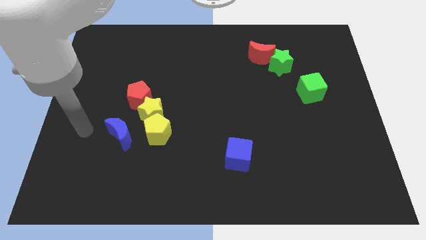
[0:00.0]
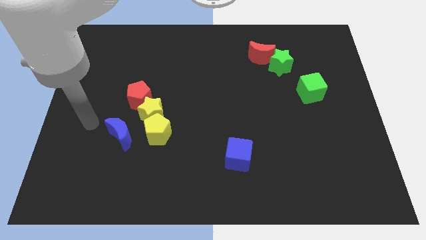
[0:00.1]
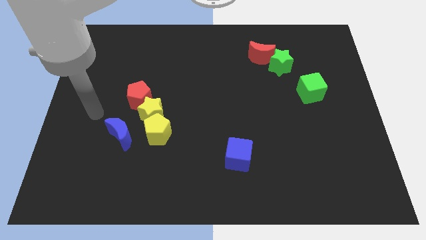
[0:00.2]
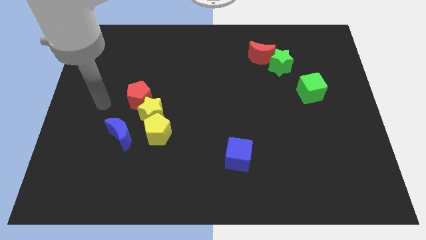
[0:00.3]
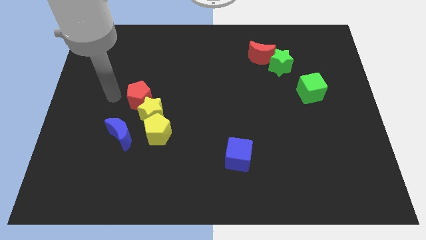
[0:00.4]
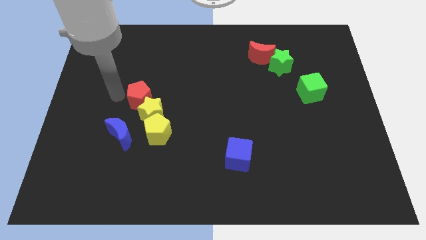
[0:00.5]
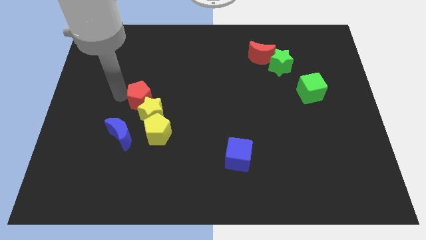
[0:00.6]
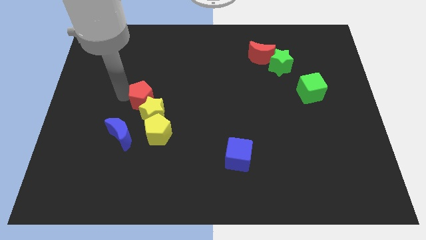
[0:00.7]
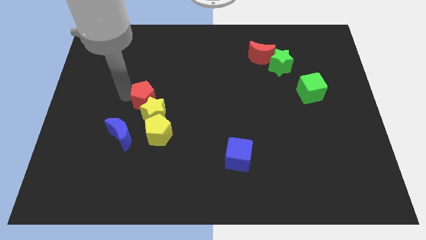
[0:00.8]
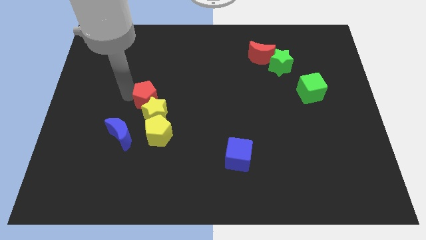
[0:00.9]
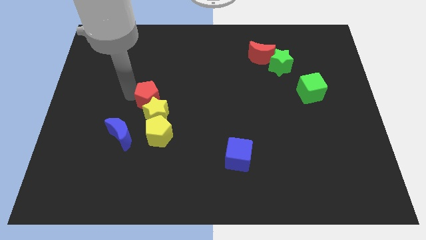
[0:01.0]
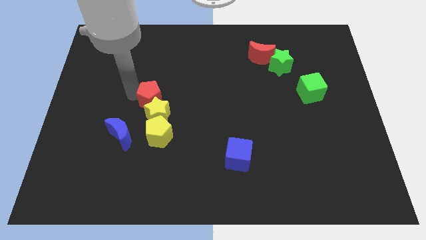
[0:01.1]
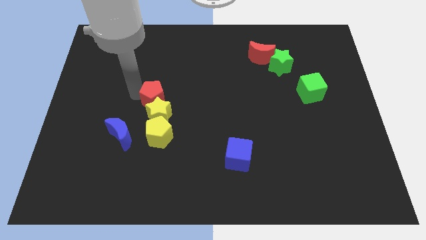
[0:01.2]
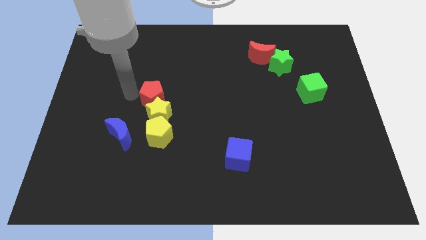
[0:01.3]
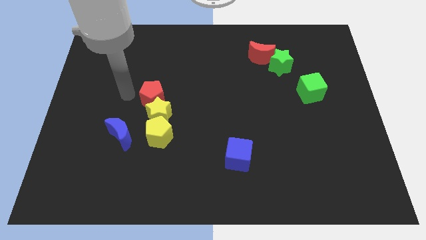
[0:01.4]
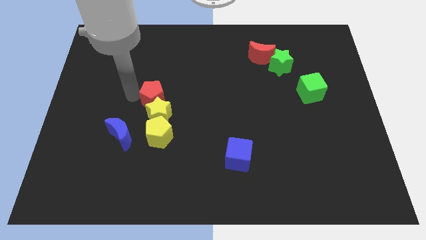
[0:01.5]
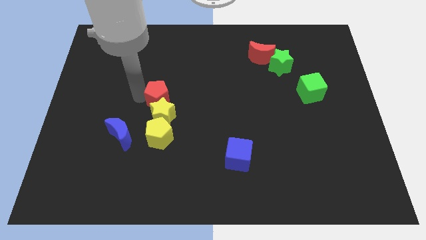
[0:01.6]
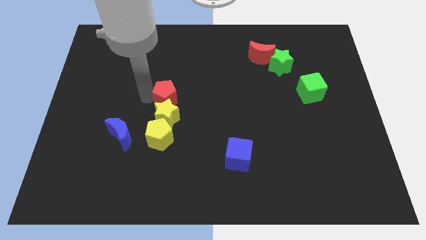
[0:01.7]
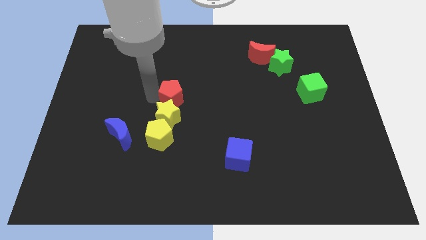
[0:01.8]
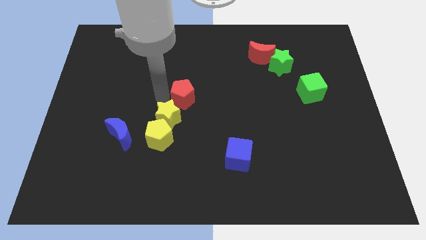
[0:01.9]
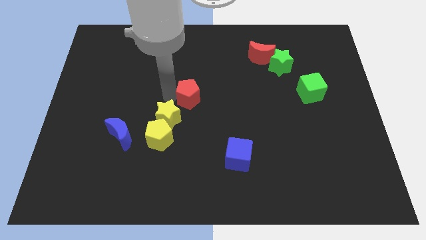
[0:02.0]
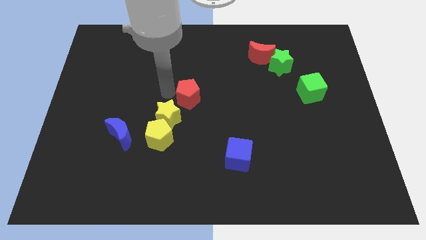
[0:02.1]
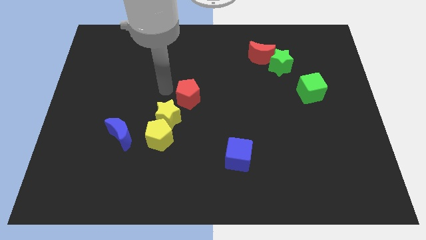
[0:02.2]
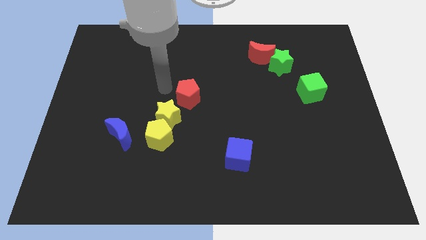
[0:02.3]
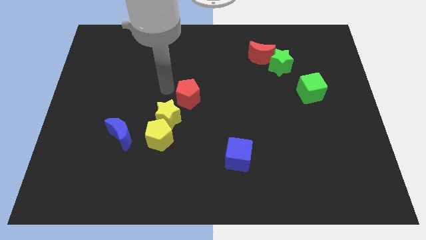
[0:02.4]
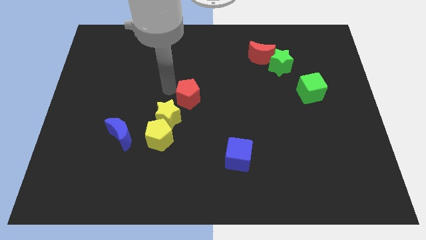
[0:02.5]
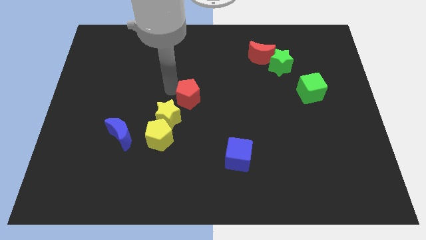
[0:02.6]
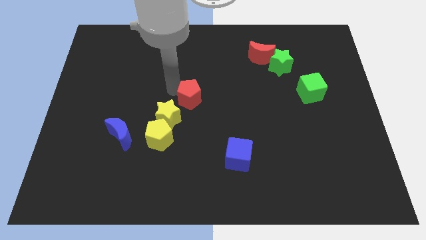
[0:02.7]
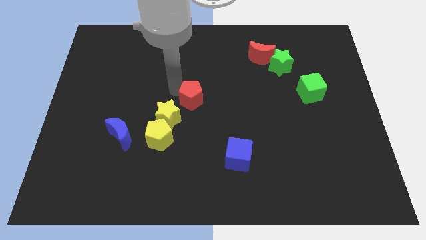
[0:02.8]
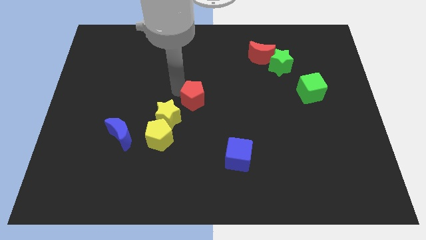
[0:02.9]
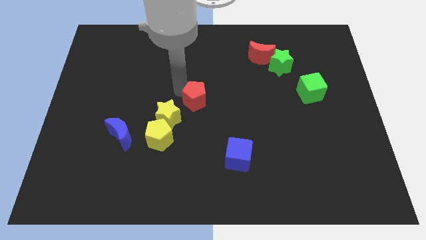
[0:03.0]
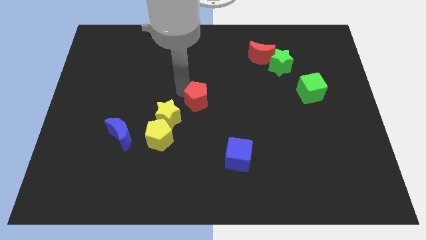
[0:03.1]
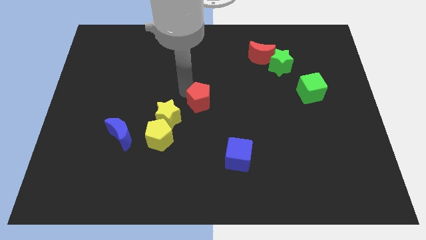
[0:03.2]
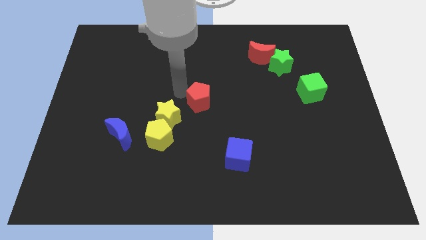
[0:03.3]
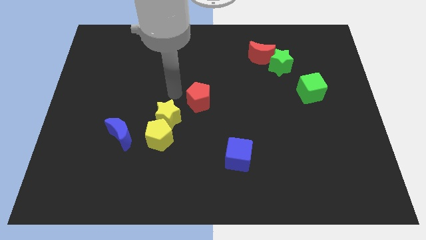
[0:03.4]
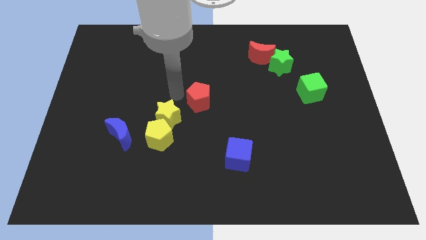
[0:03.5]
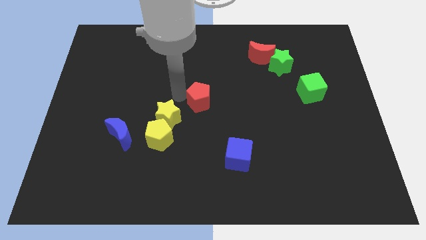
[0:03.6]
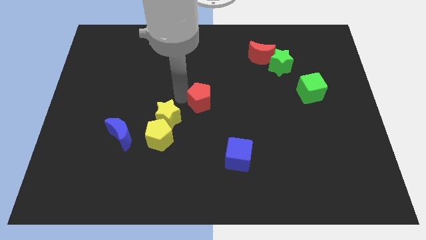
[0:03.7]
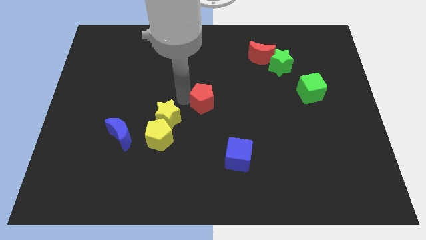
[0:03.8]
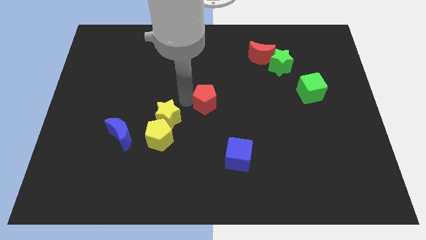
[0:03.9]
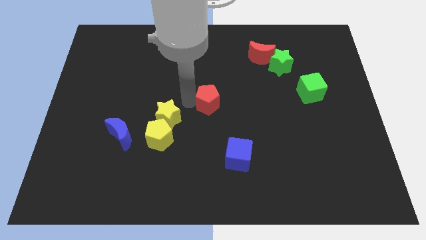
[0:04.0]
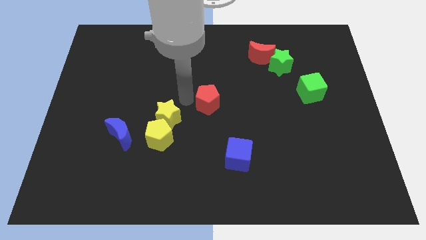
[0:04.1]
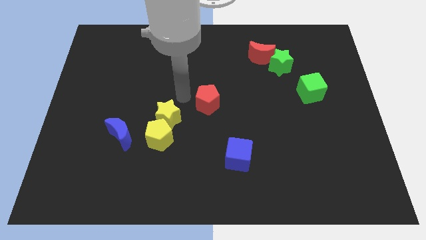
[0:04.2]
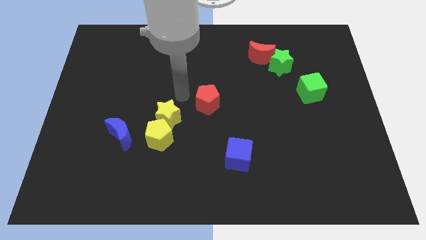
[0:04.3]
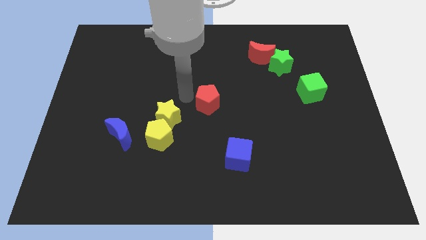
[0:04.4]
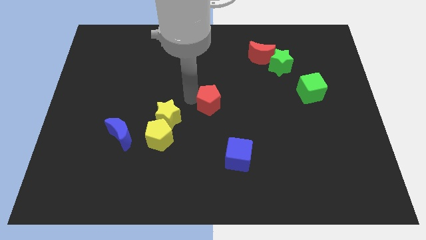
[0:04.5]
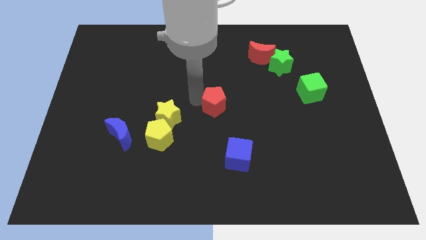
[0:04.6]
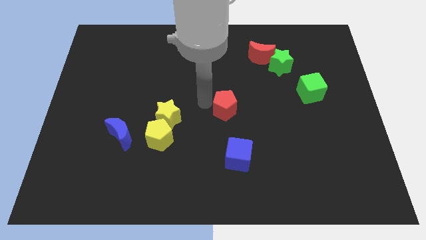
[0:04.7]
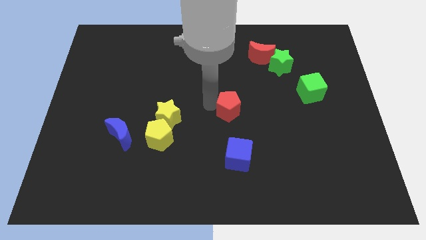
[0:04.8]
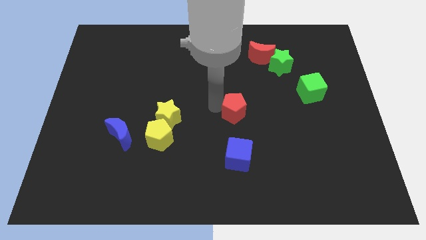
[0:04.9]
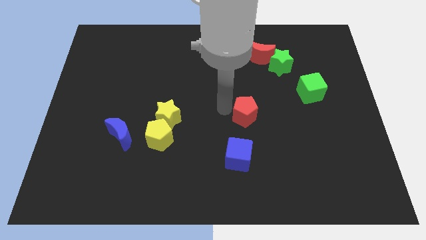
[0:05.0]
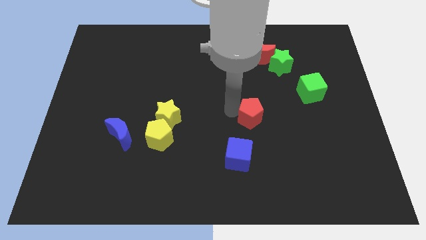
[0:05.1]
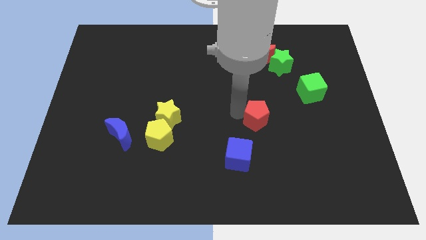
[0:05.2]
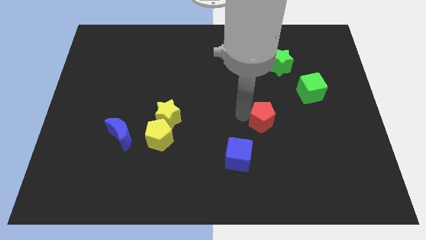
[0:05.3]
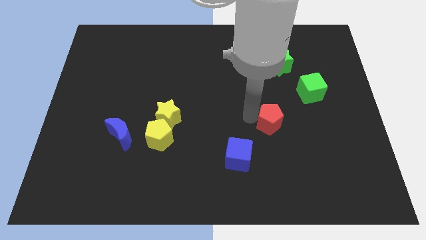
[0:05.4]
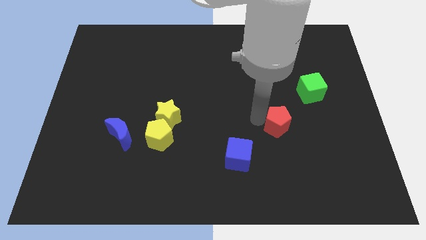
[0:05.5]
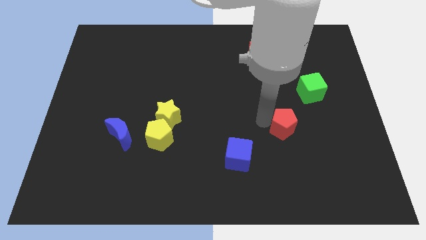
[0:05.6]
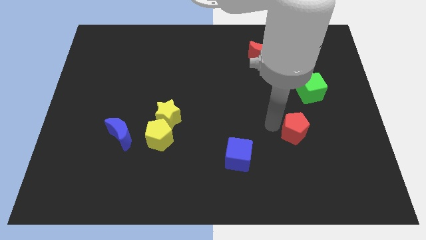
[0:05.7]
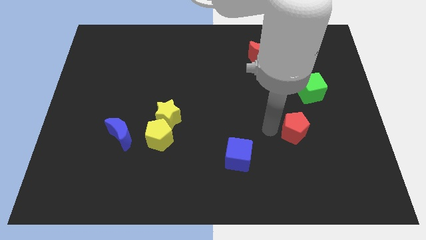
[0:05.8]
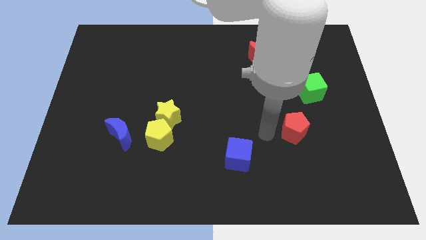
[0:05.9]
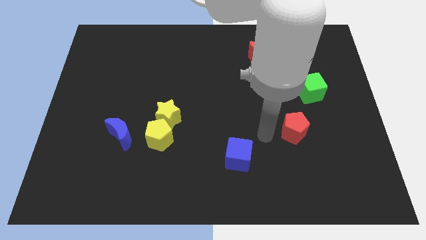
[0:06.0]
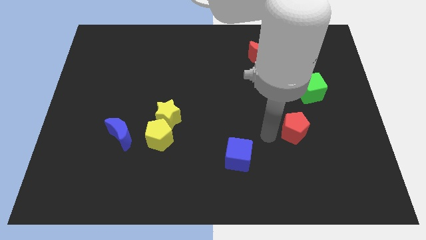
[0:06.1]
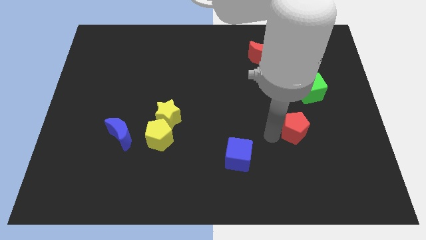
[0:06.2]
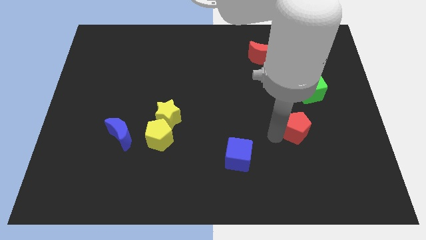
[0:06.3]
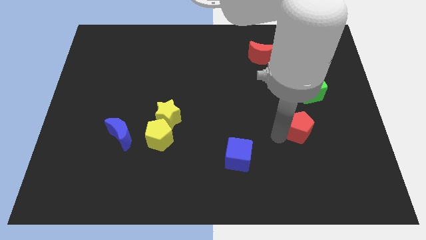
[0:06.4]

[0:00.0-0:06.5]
slide the red pentagon below the green cube

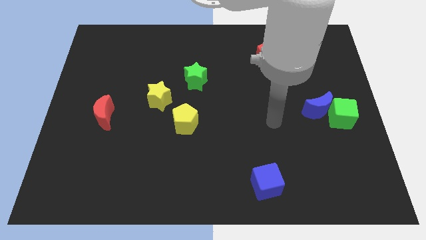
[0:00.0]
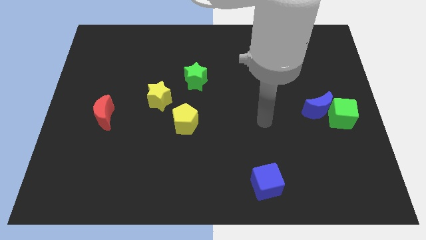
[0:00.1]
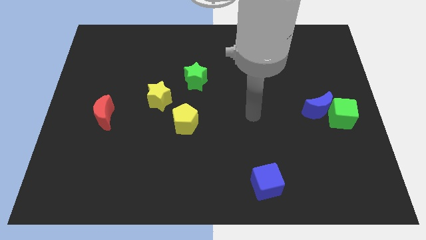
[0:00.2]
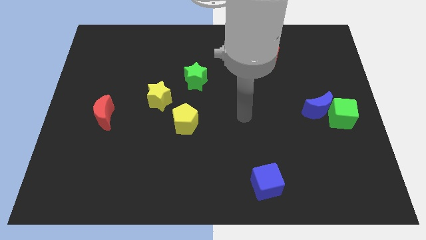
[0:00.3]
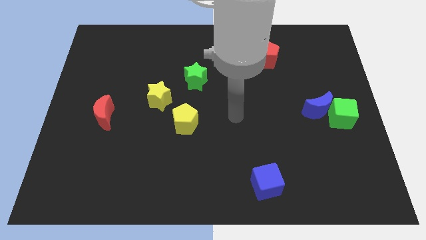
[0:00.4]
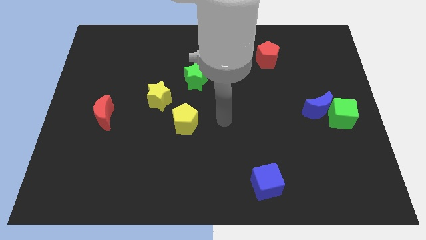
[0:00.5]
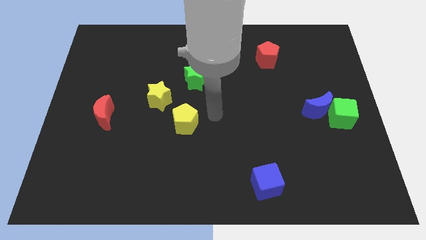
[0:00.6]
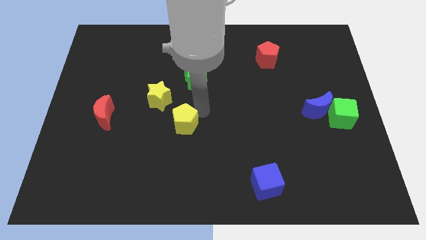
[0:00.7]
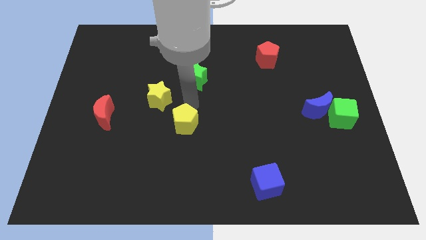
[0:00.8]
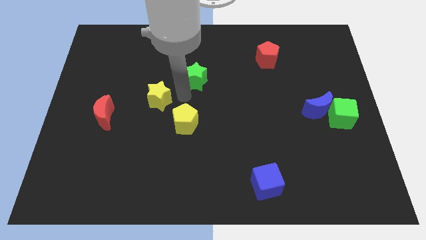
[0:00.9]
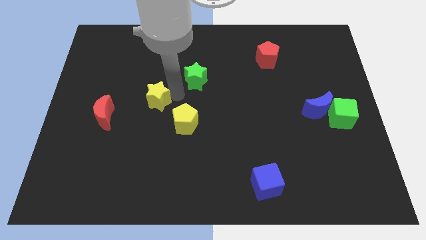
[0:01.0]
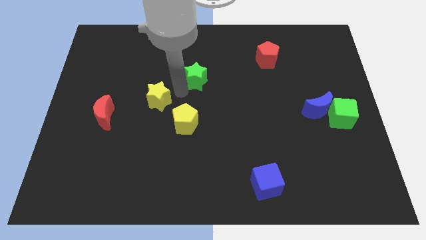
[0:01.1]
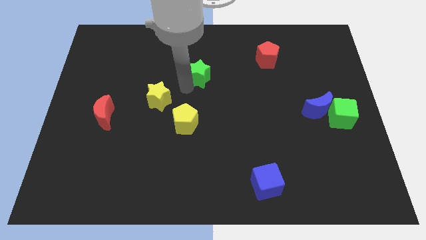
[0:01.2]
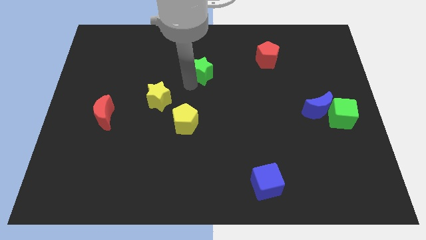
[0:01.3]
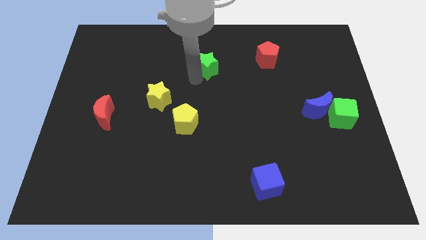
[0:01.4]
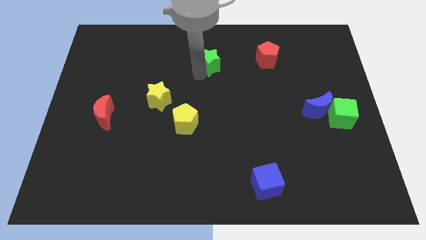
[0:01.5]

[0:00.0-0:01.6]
move the green star just left of the red pentagon
